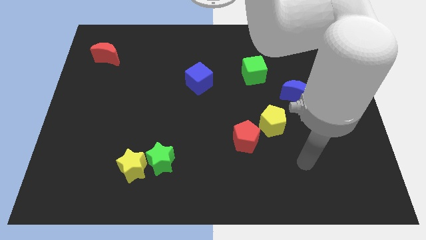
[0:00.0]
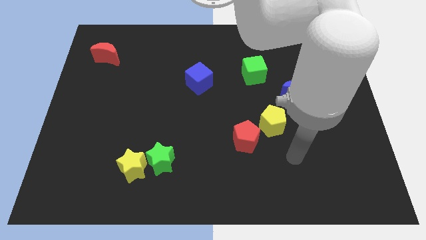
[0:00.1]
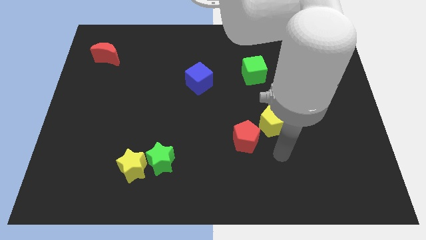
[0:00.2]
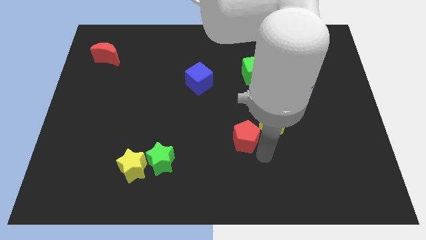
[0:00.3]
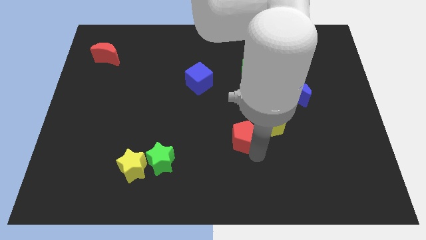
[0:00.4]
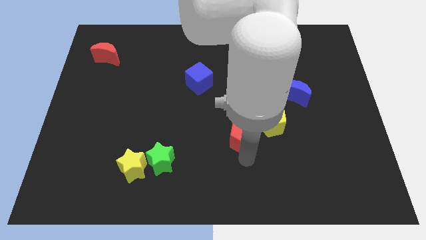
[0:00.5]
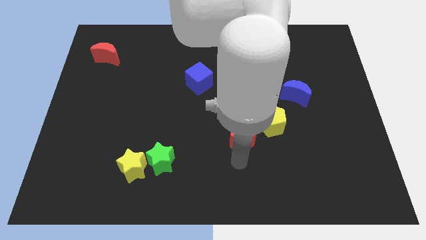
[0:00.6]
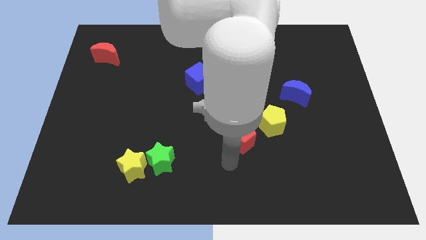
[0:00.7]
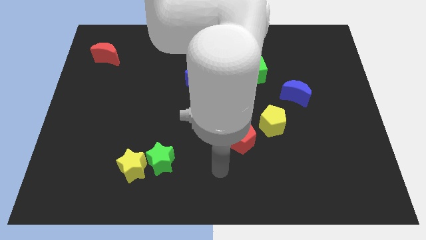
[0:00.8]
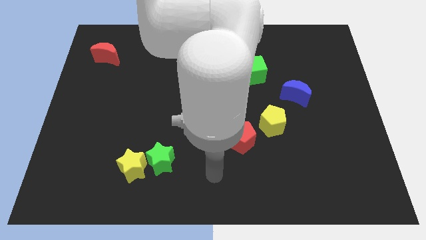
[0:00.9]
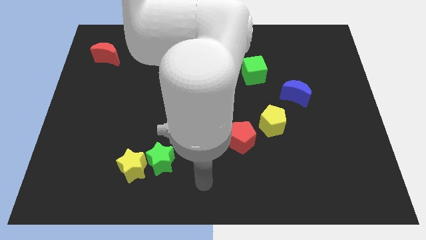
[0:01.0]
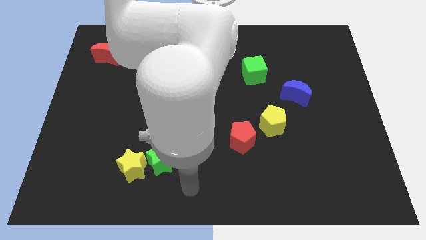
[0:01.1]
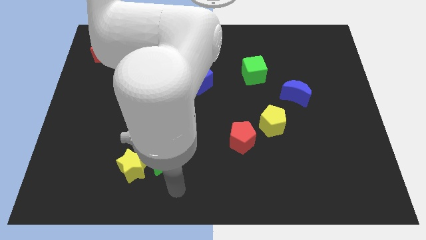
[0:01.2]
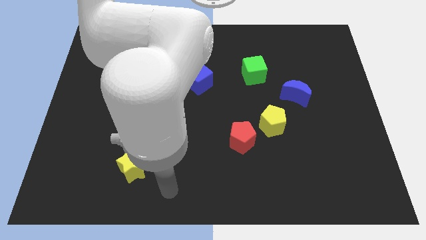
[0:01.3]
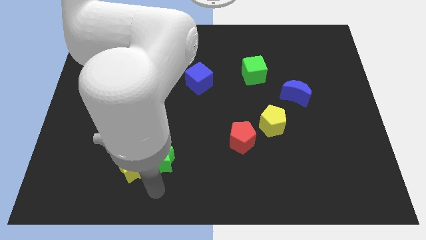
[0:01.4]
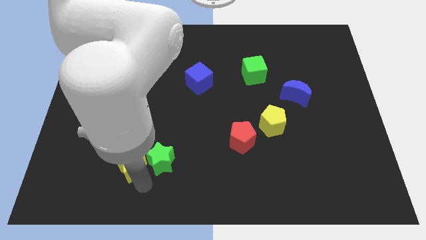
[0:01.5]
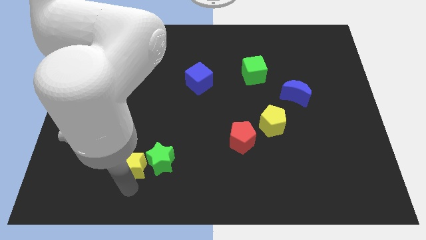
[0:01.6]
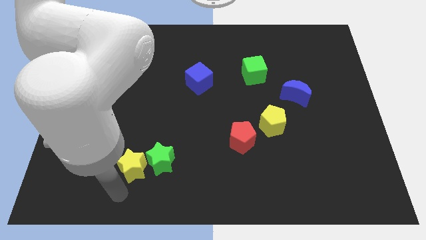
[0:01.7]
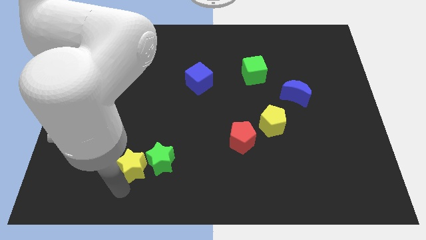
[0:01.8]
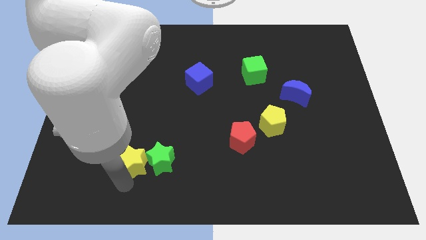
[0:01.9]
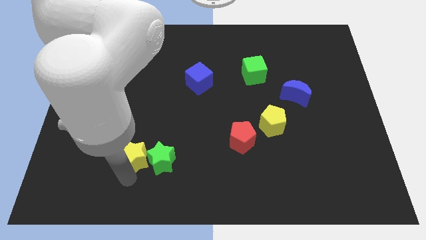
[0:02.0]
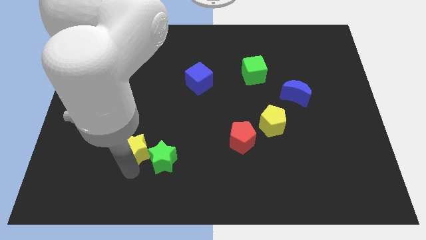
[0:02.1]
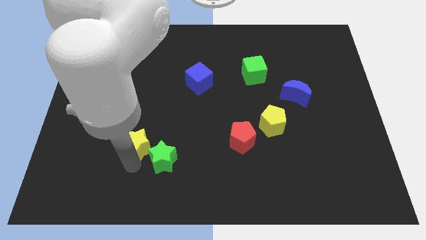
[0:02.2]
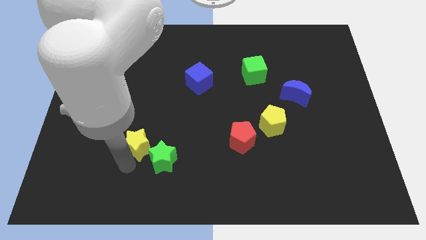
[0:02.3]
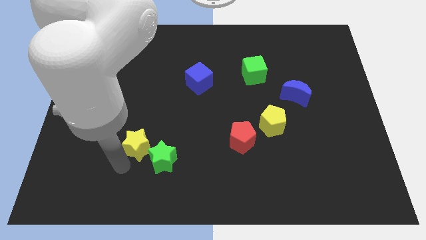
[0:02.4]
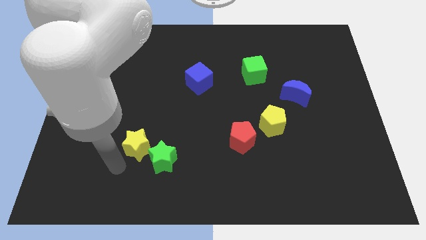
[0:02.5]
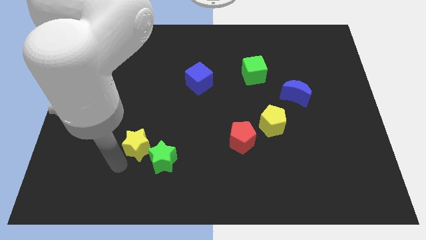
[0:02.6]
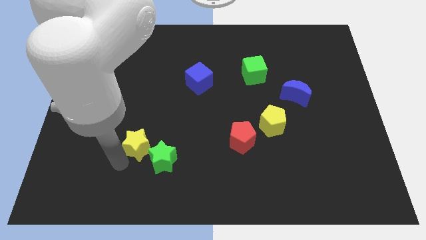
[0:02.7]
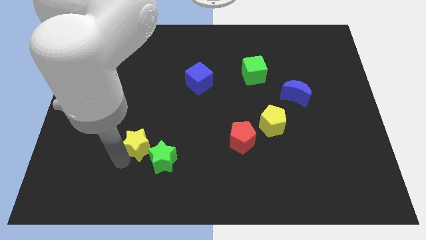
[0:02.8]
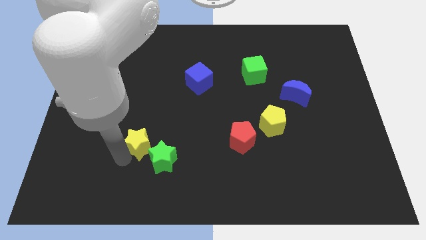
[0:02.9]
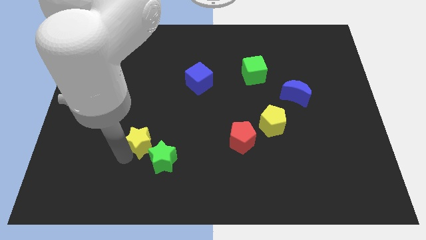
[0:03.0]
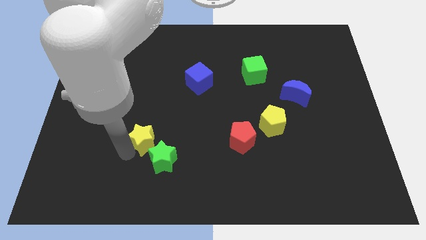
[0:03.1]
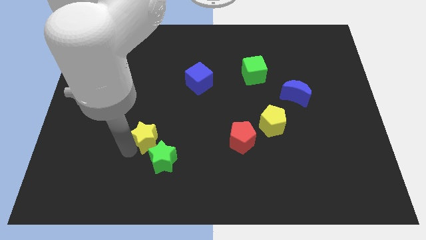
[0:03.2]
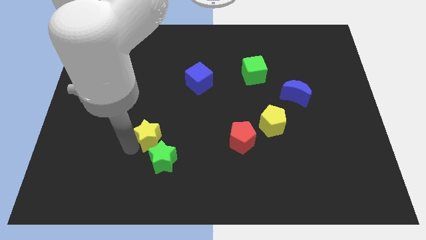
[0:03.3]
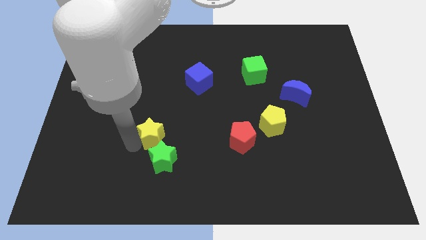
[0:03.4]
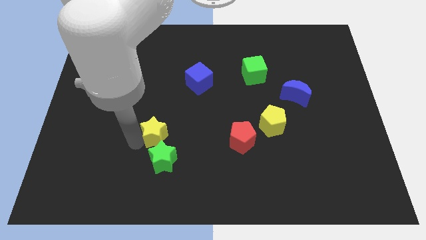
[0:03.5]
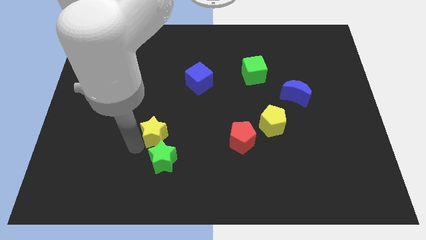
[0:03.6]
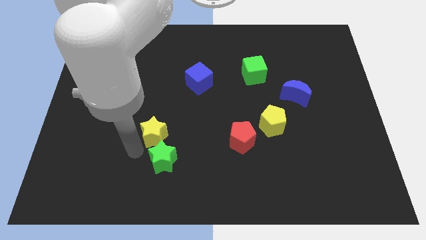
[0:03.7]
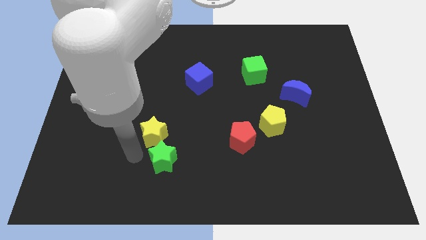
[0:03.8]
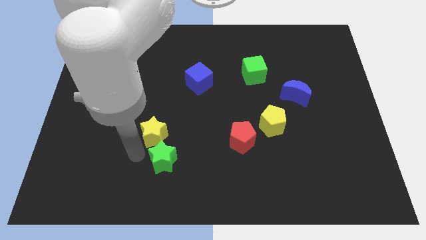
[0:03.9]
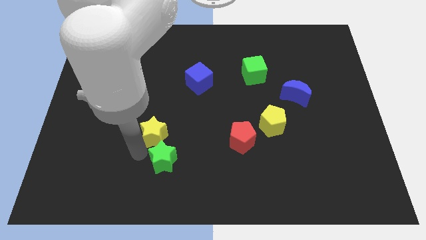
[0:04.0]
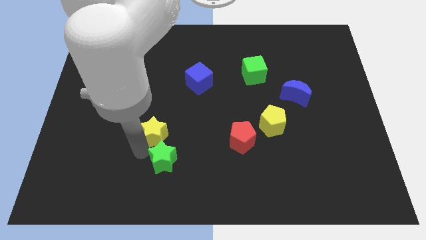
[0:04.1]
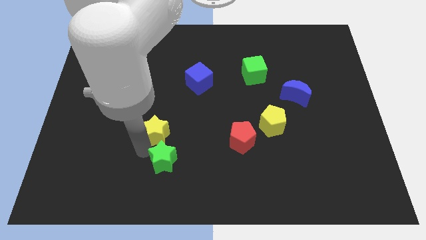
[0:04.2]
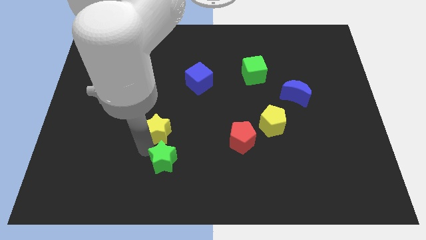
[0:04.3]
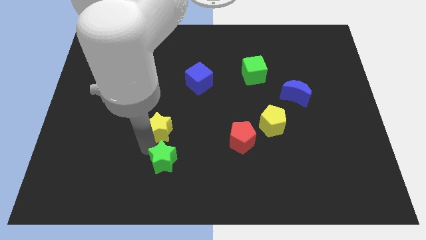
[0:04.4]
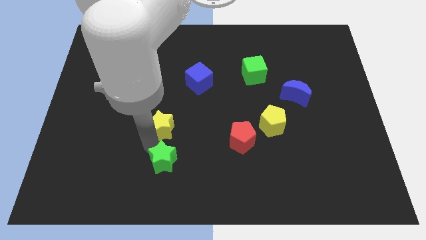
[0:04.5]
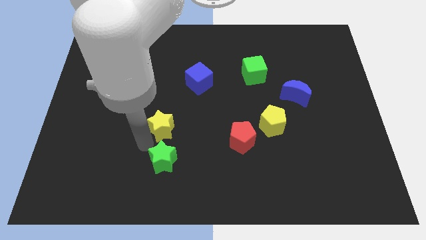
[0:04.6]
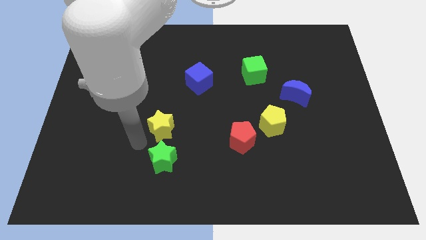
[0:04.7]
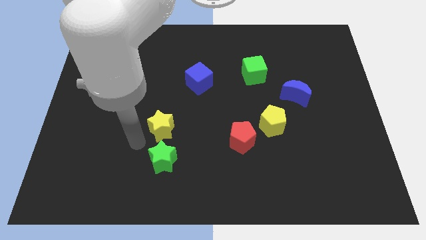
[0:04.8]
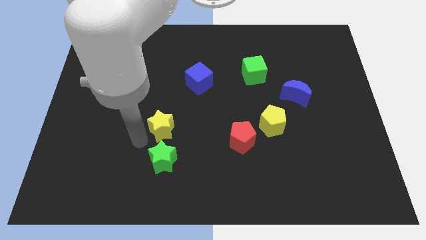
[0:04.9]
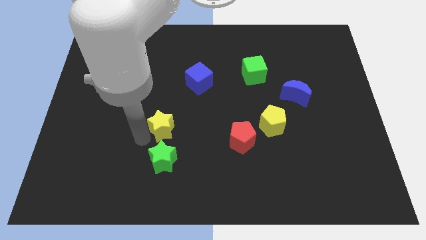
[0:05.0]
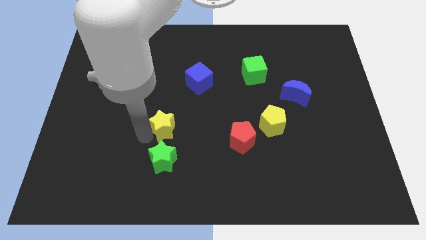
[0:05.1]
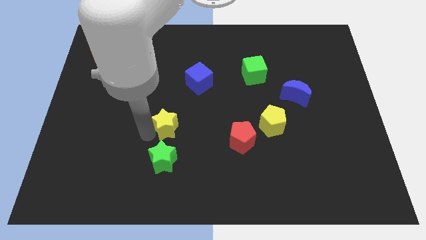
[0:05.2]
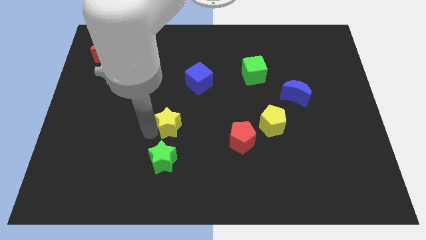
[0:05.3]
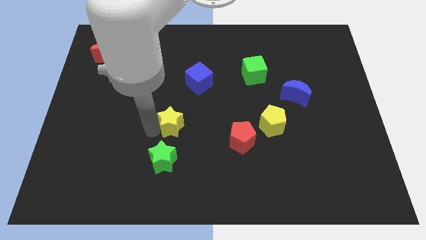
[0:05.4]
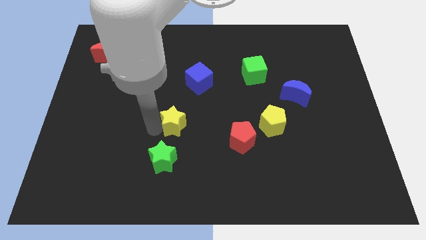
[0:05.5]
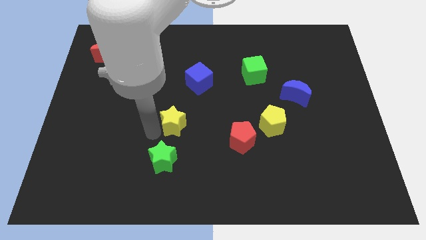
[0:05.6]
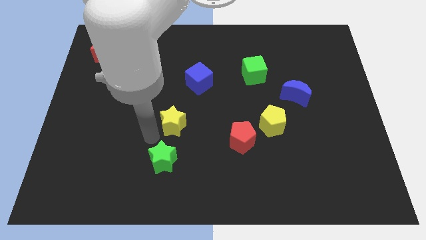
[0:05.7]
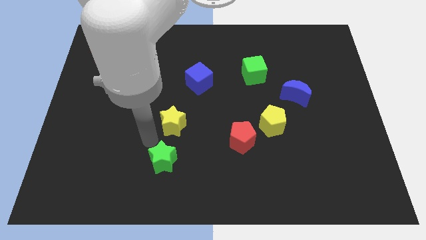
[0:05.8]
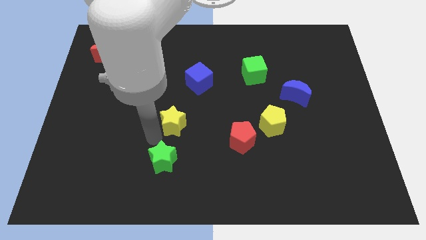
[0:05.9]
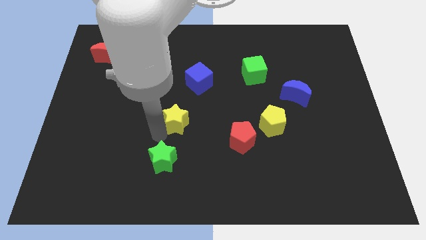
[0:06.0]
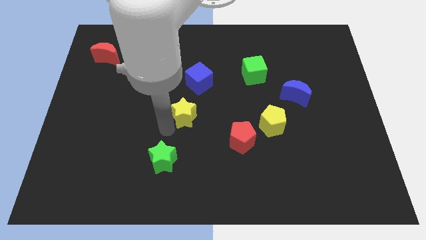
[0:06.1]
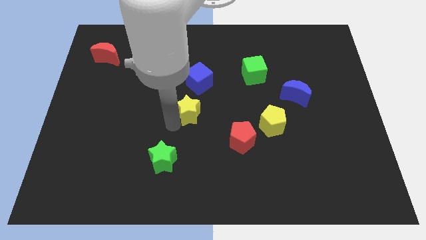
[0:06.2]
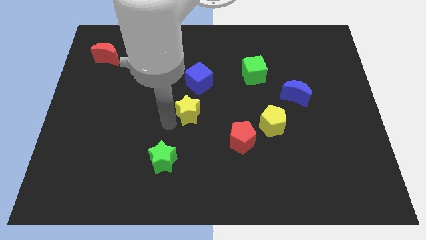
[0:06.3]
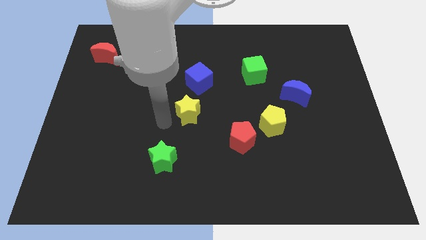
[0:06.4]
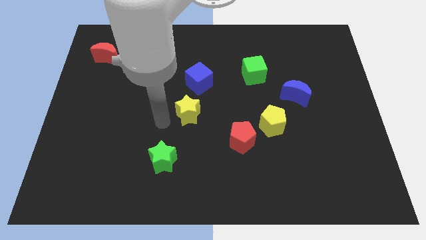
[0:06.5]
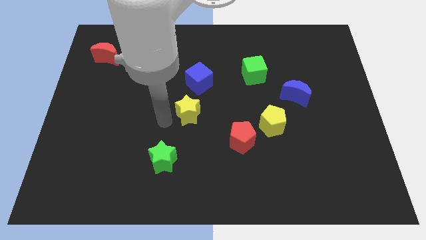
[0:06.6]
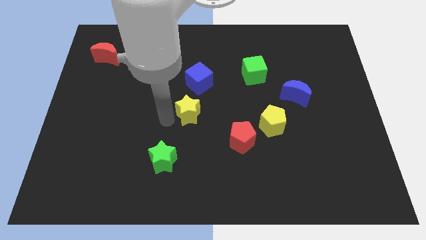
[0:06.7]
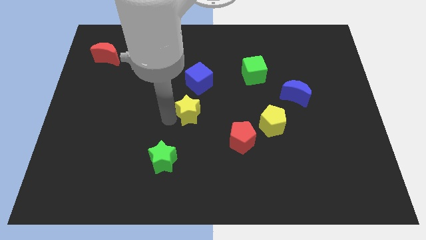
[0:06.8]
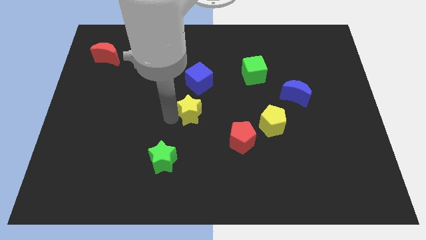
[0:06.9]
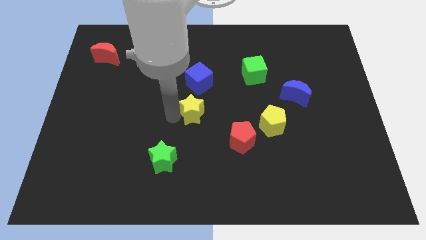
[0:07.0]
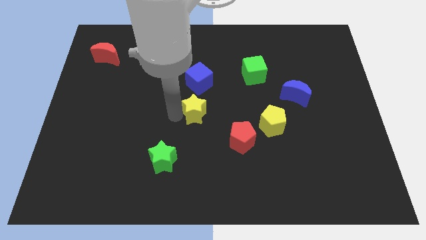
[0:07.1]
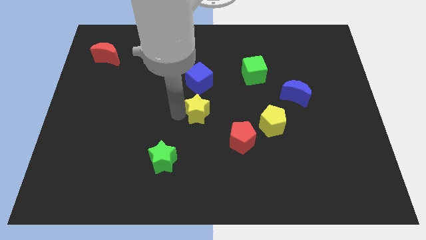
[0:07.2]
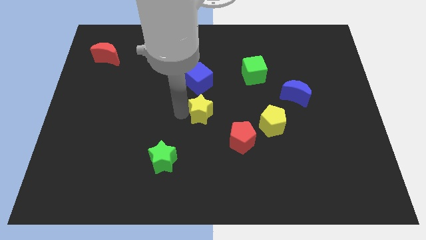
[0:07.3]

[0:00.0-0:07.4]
slide the yellow star upwards and to the right

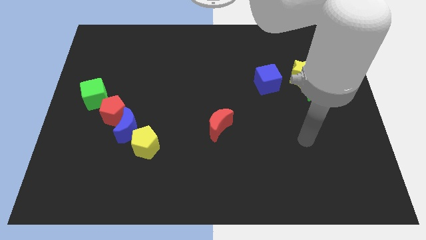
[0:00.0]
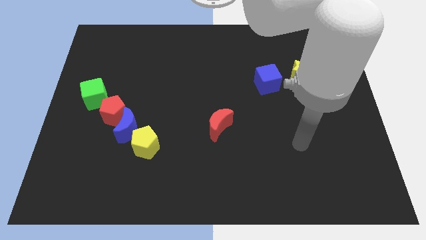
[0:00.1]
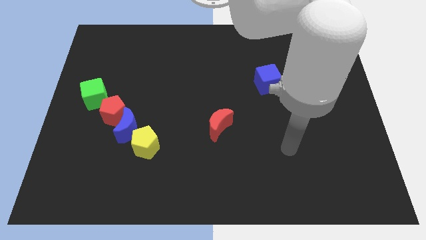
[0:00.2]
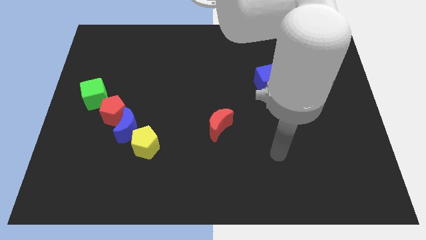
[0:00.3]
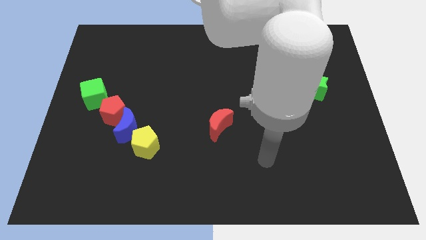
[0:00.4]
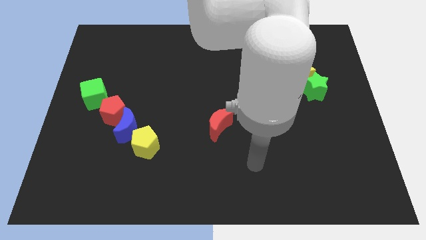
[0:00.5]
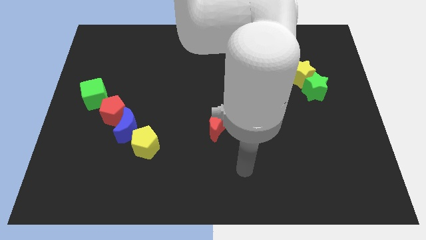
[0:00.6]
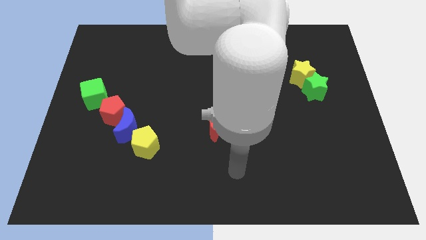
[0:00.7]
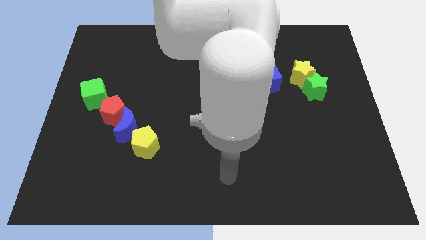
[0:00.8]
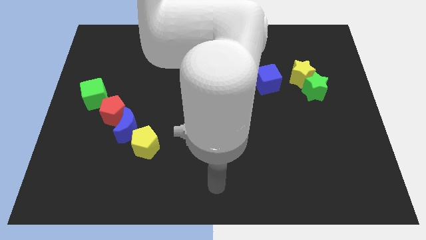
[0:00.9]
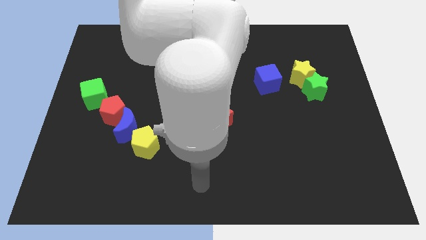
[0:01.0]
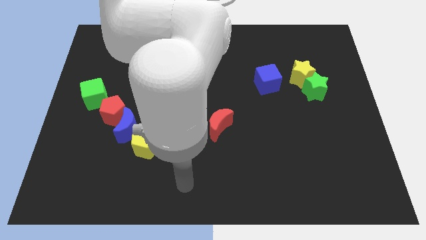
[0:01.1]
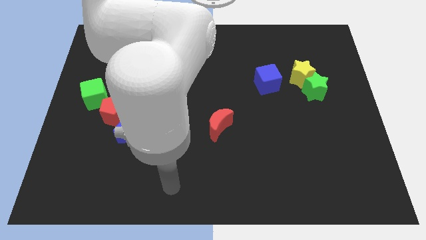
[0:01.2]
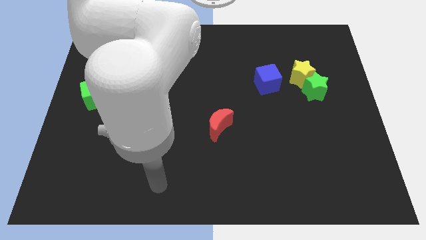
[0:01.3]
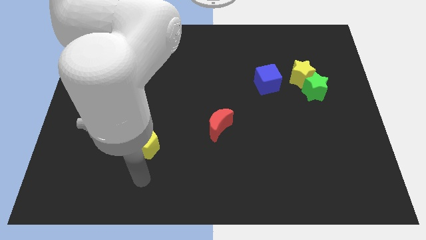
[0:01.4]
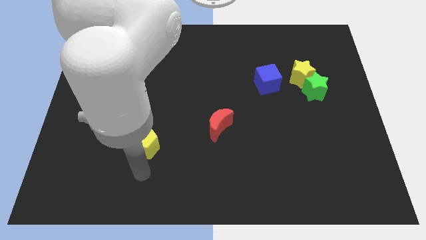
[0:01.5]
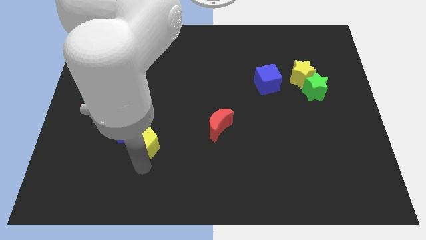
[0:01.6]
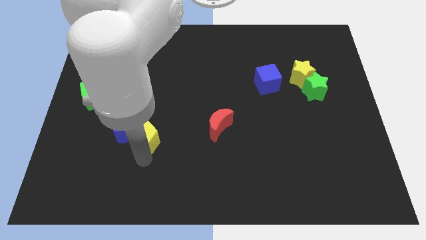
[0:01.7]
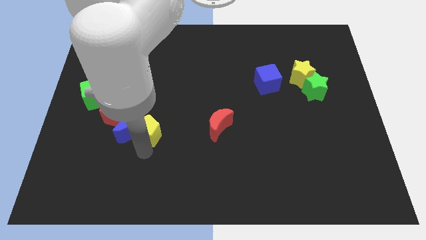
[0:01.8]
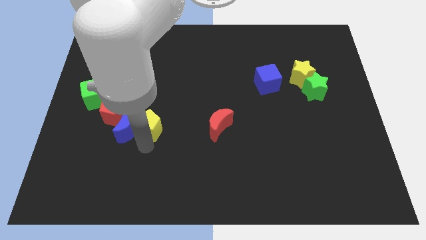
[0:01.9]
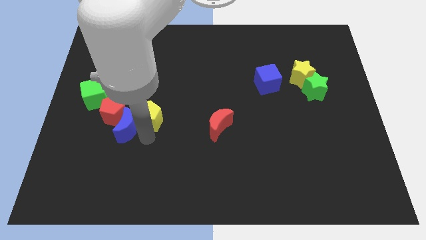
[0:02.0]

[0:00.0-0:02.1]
slide the yellow pentagon a little up
